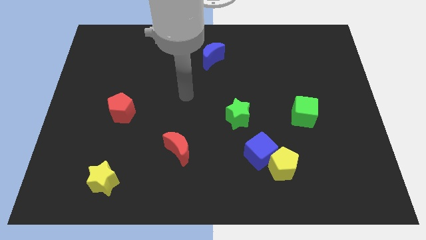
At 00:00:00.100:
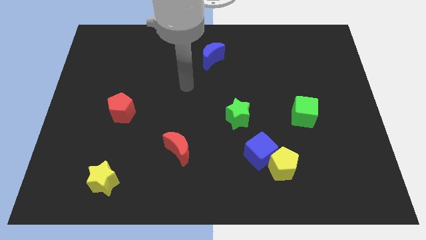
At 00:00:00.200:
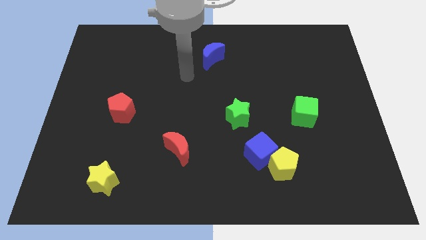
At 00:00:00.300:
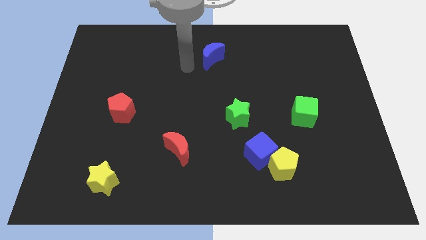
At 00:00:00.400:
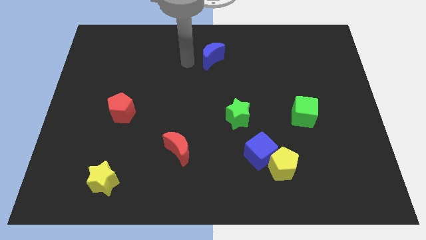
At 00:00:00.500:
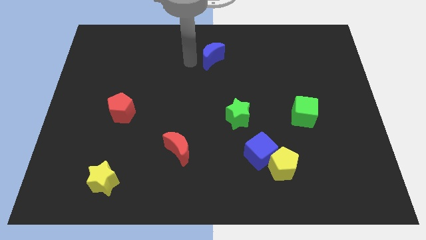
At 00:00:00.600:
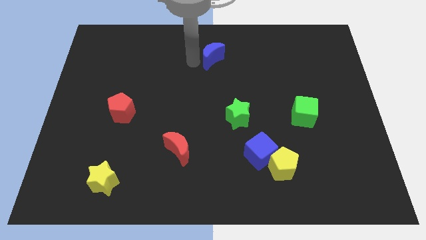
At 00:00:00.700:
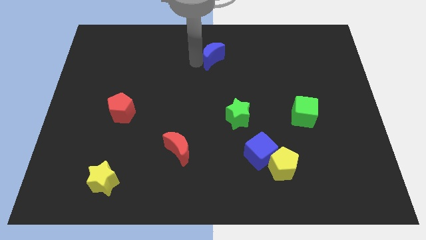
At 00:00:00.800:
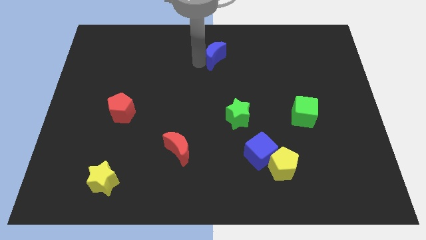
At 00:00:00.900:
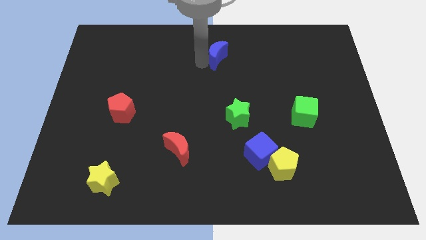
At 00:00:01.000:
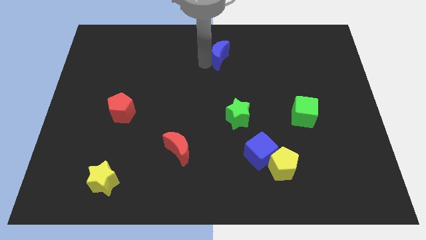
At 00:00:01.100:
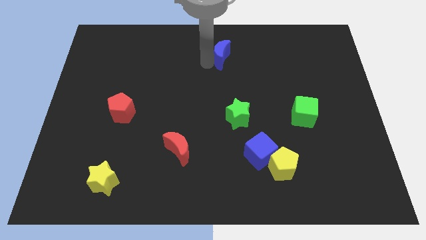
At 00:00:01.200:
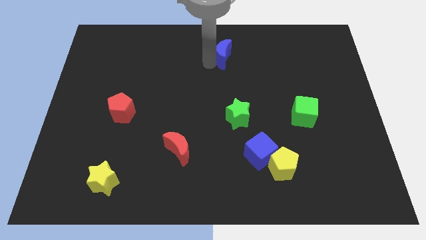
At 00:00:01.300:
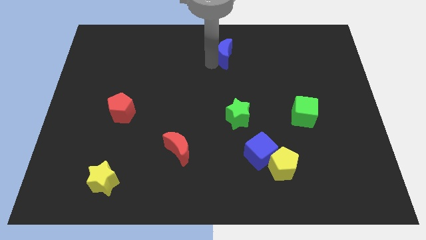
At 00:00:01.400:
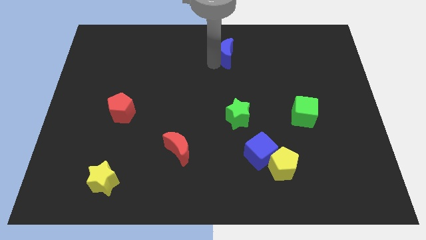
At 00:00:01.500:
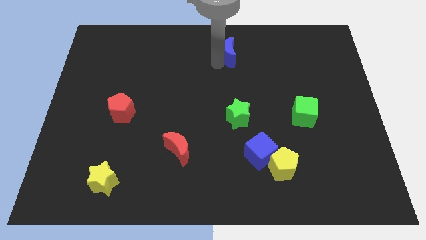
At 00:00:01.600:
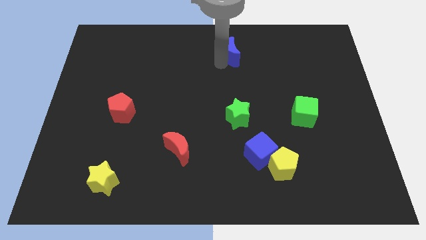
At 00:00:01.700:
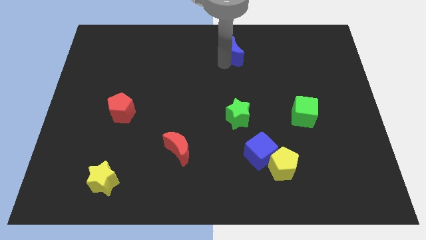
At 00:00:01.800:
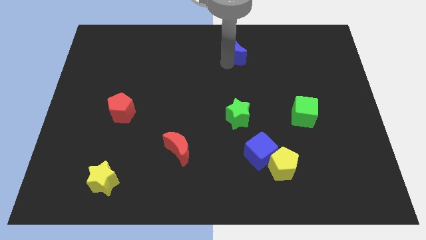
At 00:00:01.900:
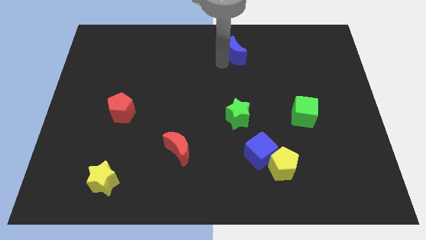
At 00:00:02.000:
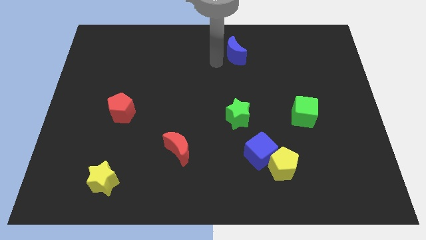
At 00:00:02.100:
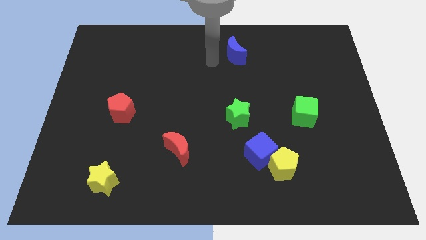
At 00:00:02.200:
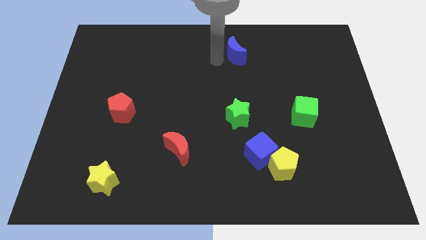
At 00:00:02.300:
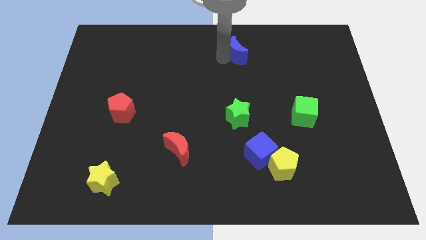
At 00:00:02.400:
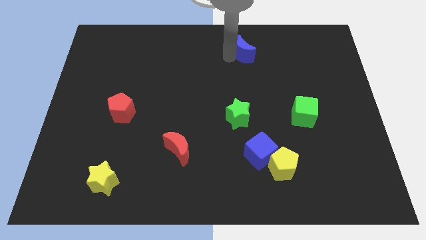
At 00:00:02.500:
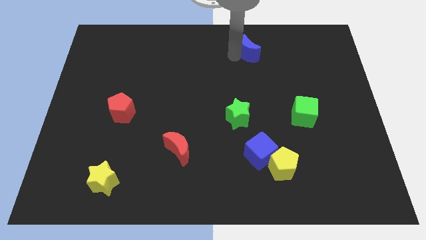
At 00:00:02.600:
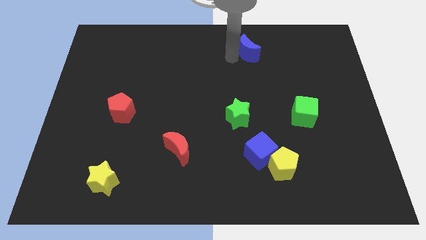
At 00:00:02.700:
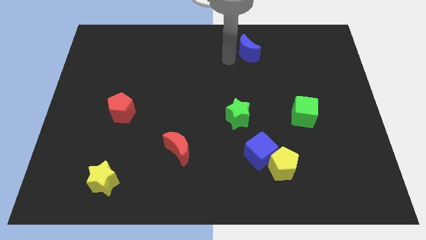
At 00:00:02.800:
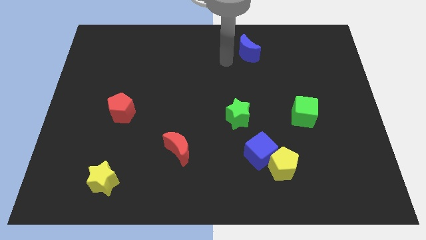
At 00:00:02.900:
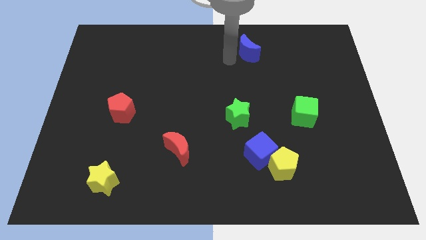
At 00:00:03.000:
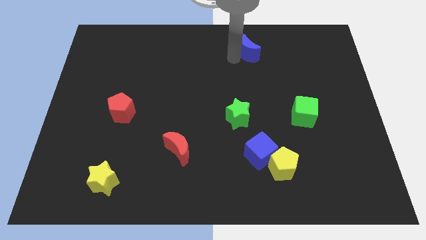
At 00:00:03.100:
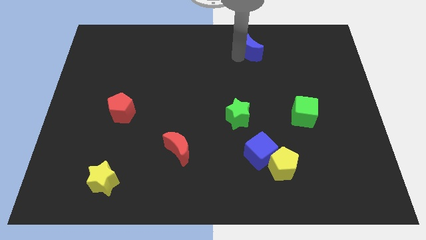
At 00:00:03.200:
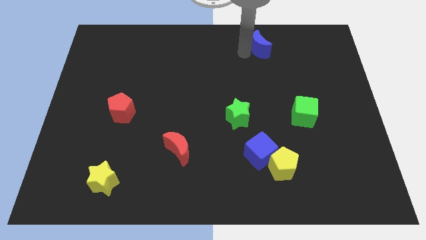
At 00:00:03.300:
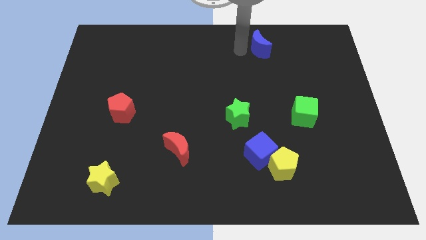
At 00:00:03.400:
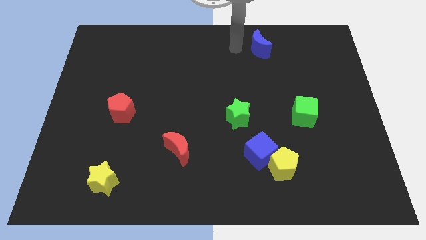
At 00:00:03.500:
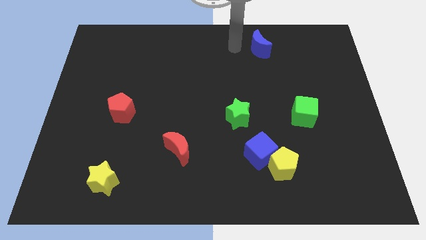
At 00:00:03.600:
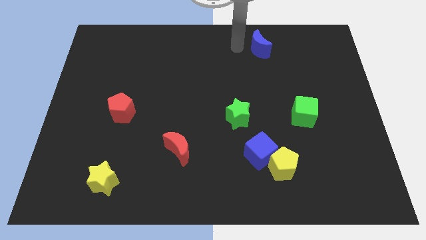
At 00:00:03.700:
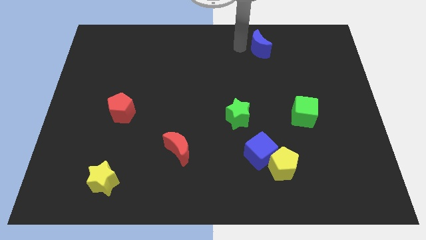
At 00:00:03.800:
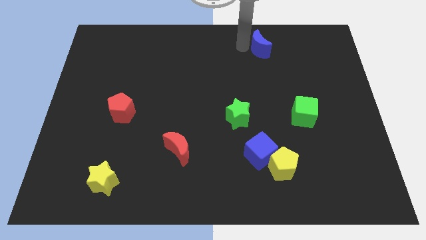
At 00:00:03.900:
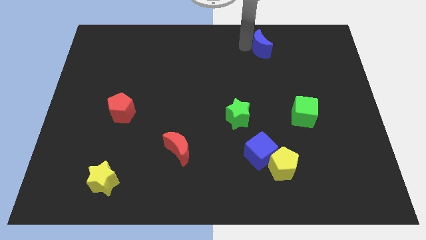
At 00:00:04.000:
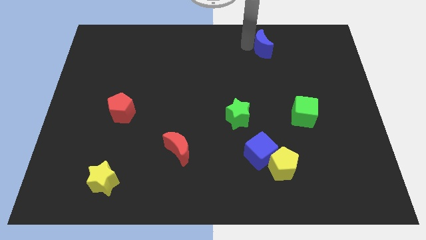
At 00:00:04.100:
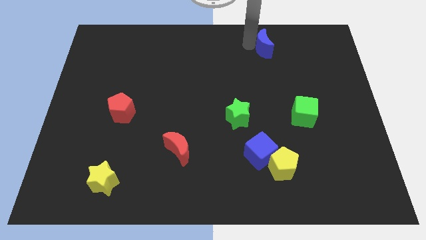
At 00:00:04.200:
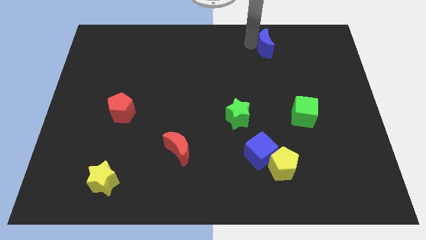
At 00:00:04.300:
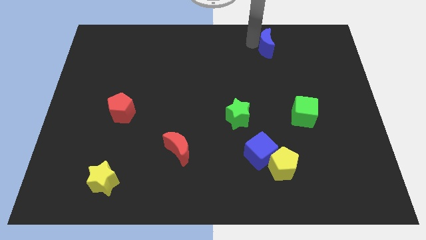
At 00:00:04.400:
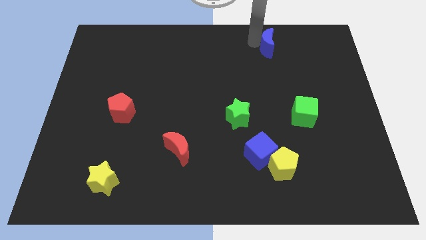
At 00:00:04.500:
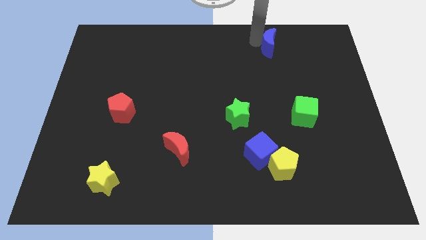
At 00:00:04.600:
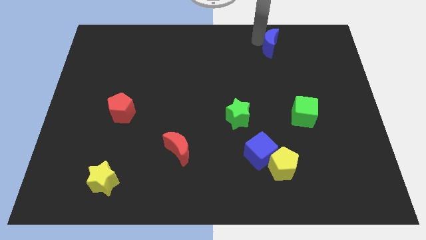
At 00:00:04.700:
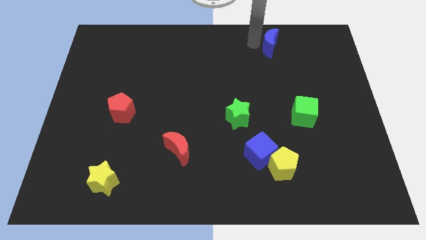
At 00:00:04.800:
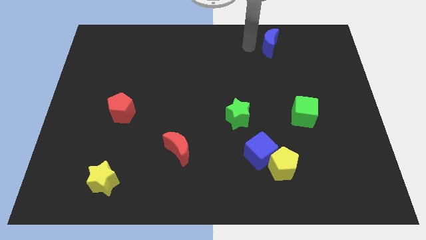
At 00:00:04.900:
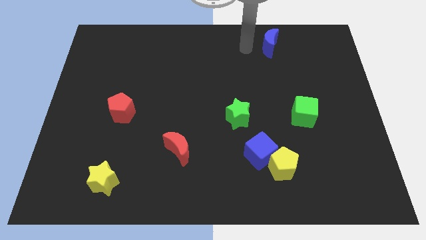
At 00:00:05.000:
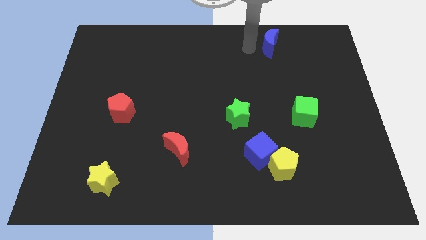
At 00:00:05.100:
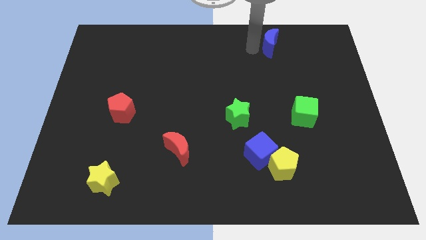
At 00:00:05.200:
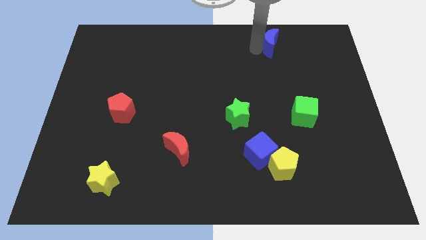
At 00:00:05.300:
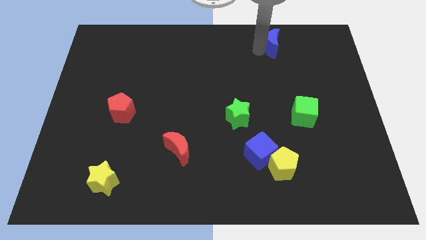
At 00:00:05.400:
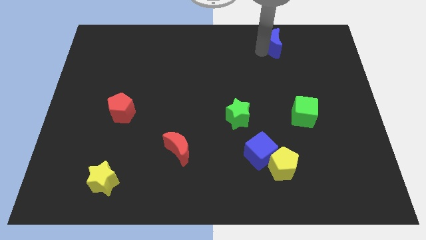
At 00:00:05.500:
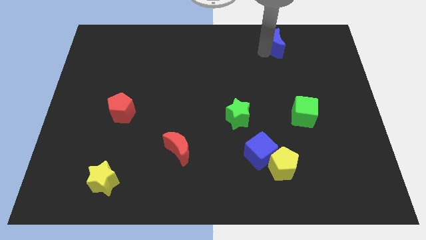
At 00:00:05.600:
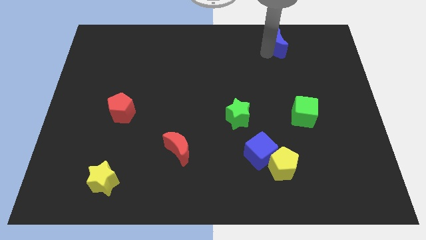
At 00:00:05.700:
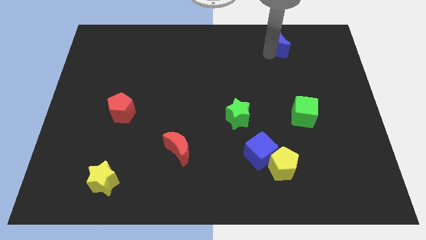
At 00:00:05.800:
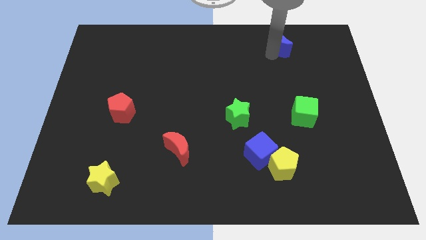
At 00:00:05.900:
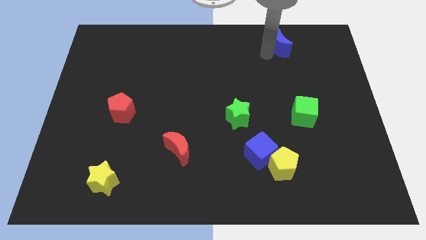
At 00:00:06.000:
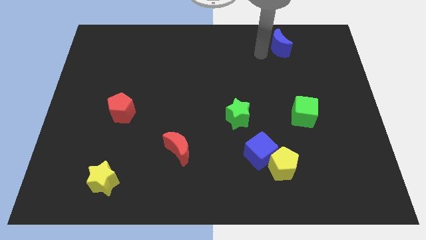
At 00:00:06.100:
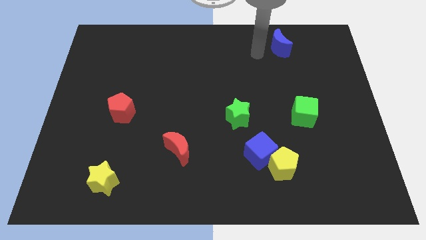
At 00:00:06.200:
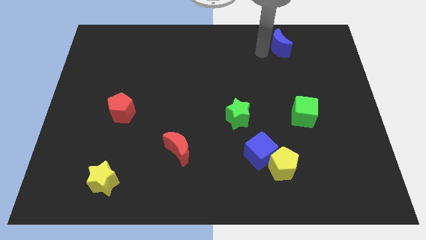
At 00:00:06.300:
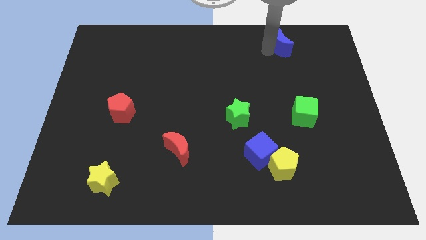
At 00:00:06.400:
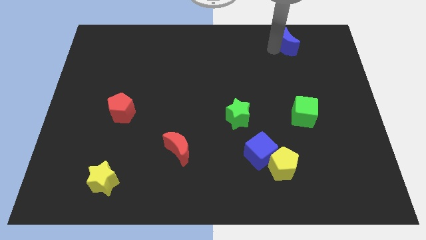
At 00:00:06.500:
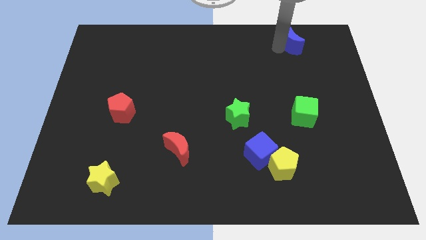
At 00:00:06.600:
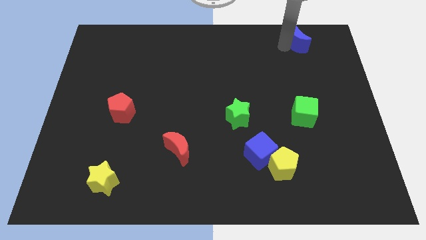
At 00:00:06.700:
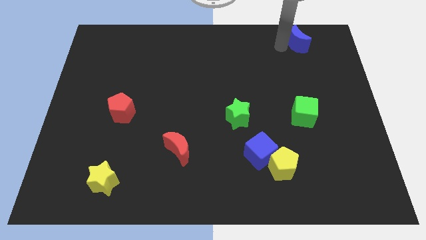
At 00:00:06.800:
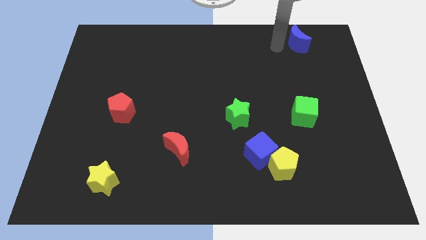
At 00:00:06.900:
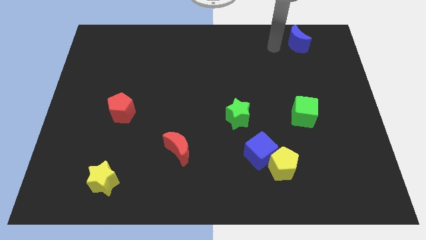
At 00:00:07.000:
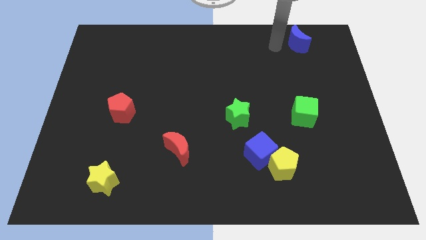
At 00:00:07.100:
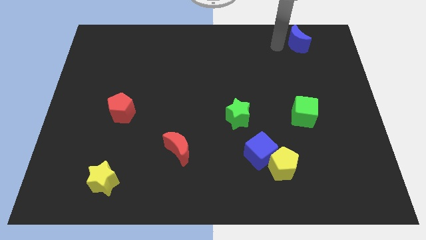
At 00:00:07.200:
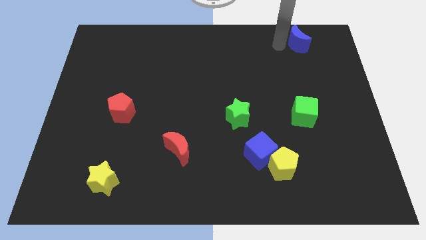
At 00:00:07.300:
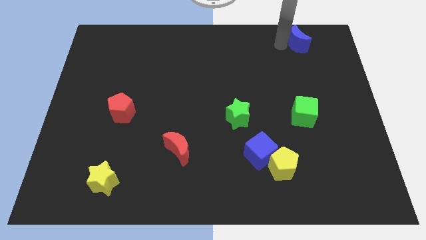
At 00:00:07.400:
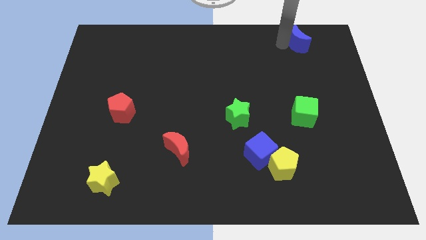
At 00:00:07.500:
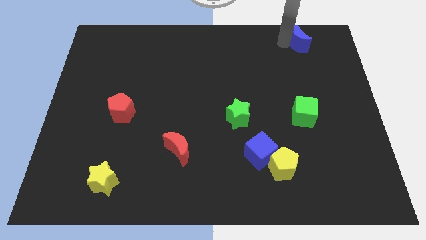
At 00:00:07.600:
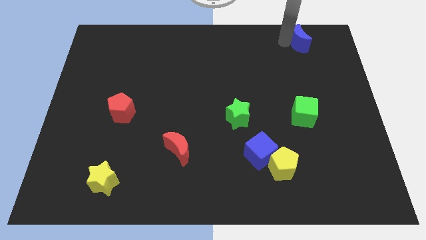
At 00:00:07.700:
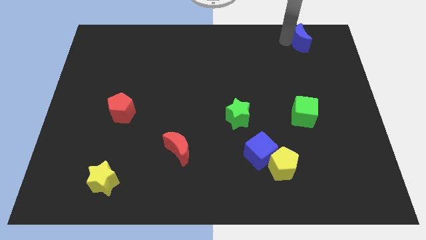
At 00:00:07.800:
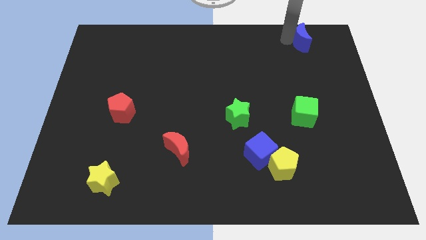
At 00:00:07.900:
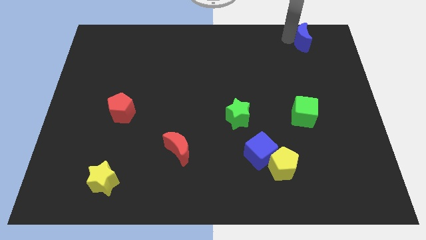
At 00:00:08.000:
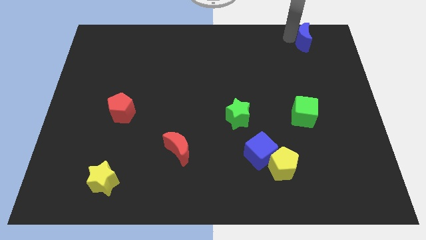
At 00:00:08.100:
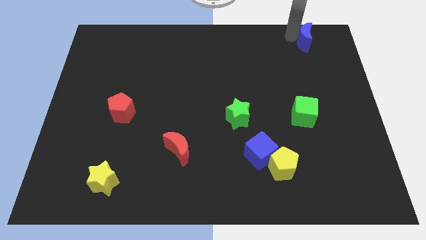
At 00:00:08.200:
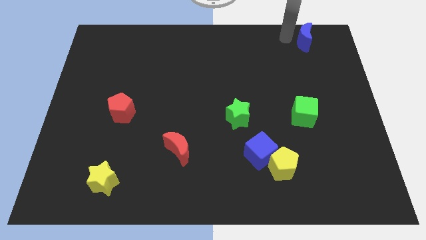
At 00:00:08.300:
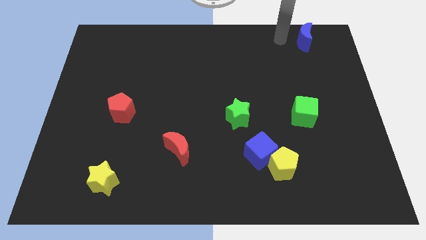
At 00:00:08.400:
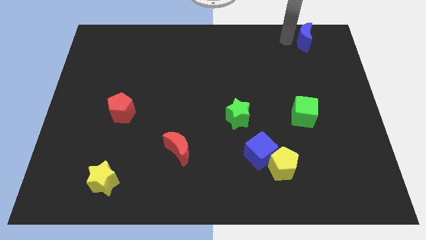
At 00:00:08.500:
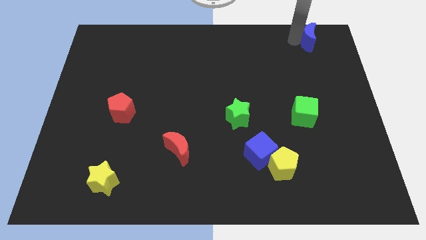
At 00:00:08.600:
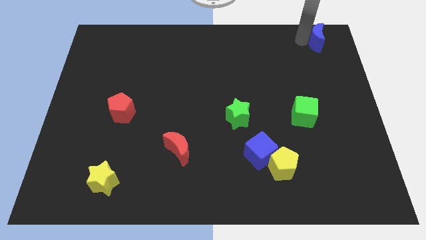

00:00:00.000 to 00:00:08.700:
move the blue moon to the top right corner
